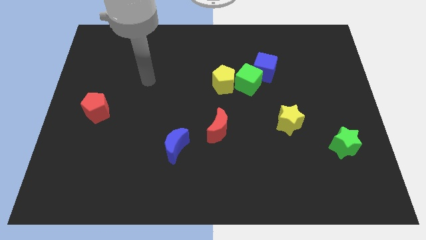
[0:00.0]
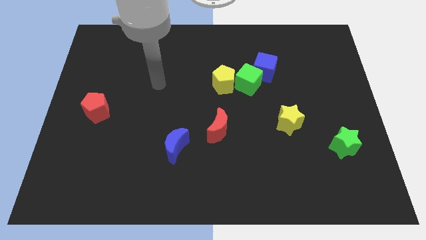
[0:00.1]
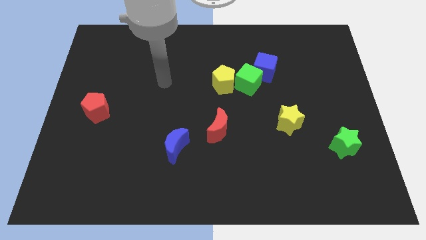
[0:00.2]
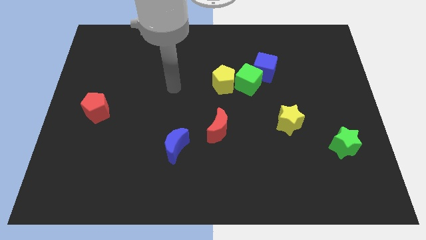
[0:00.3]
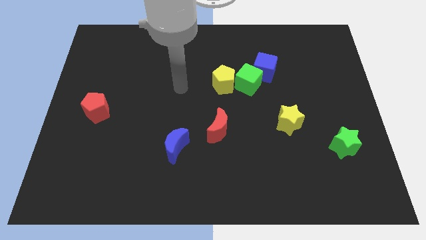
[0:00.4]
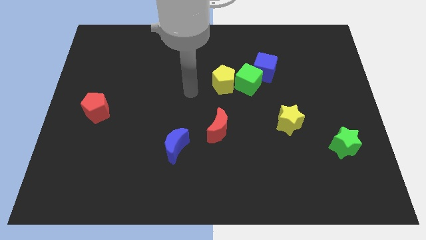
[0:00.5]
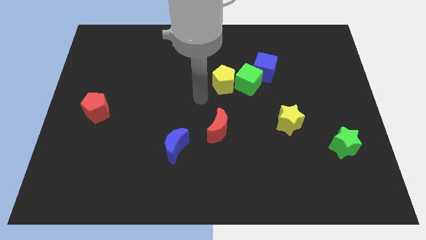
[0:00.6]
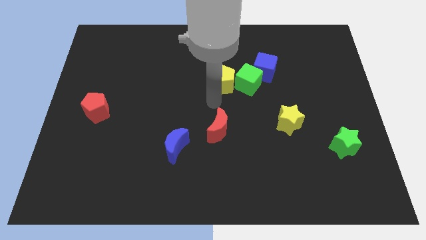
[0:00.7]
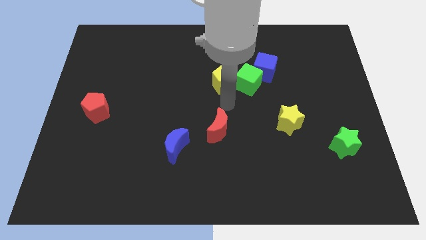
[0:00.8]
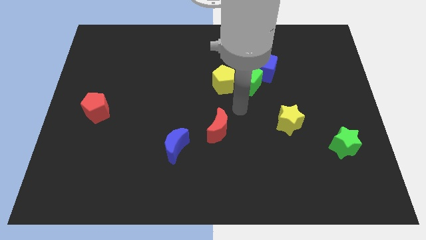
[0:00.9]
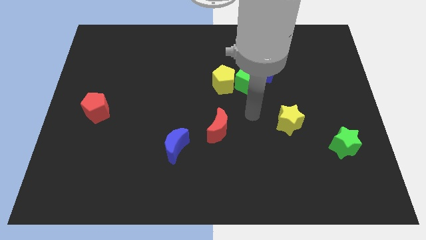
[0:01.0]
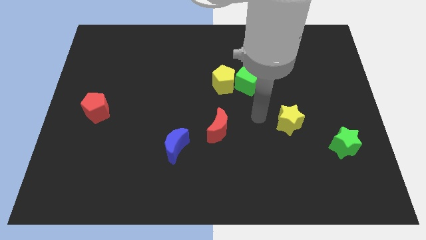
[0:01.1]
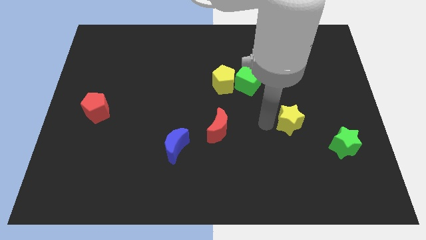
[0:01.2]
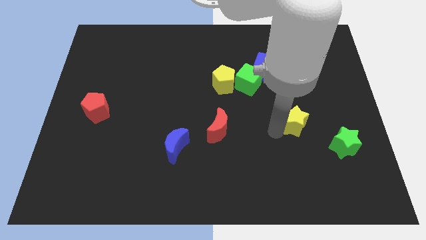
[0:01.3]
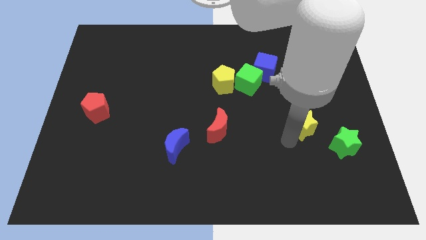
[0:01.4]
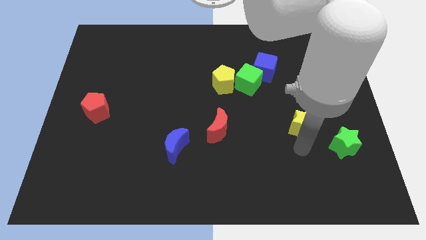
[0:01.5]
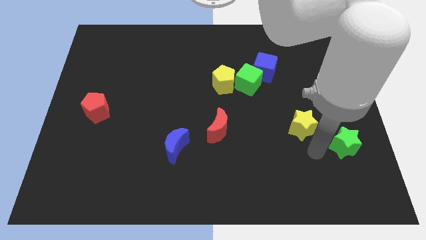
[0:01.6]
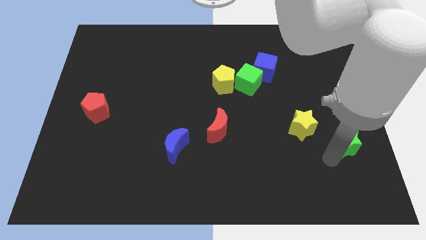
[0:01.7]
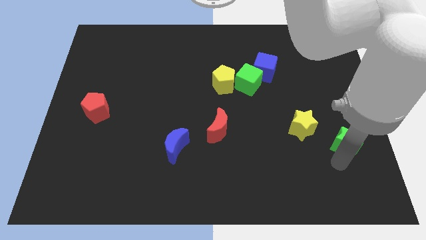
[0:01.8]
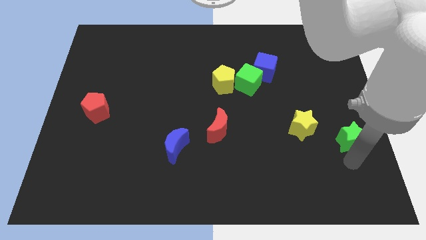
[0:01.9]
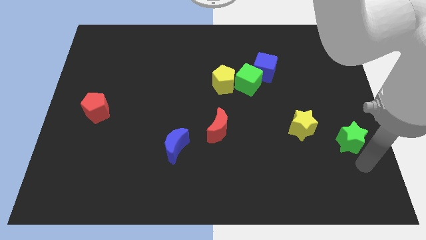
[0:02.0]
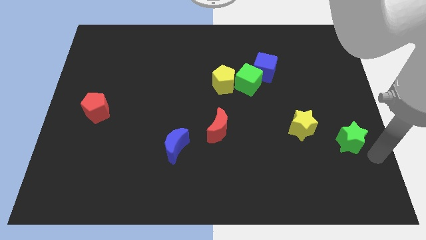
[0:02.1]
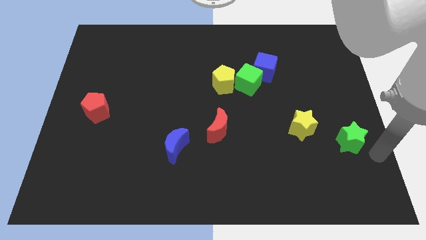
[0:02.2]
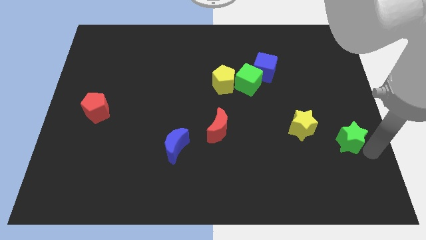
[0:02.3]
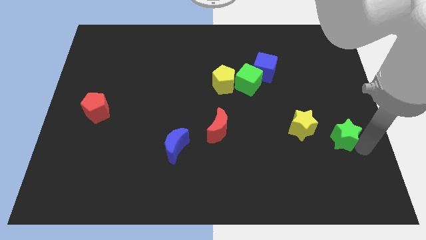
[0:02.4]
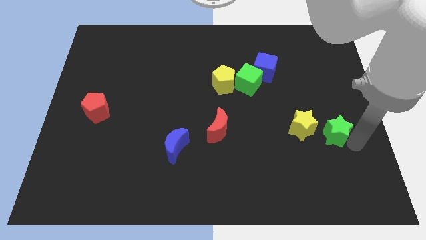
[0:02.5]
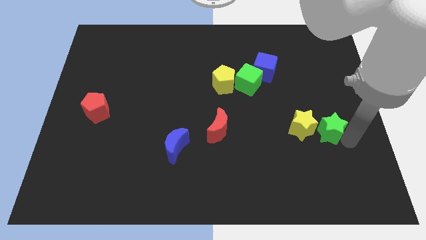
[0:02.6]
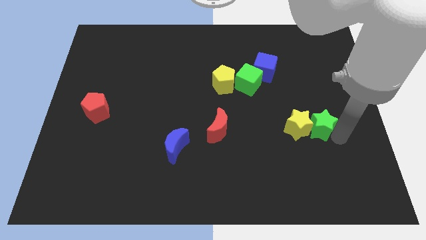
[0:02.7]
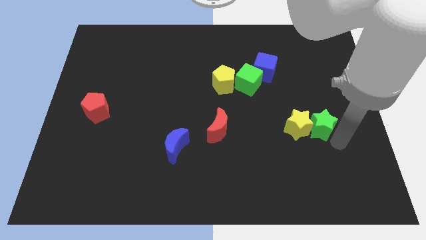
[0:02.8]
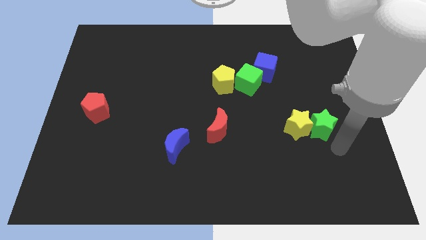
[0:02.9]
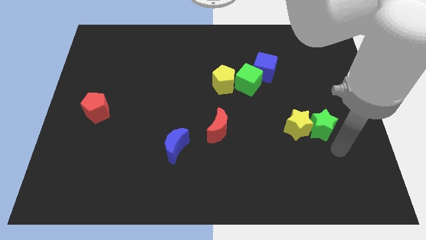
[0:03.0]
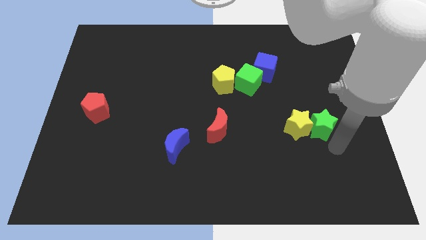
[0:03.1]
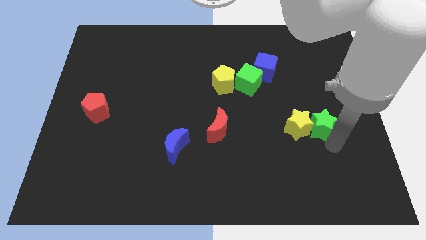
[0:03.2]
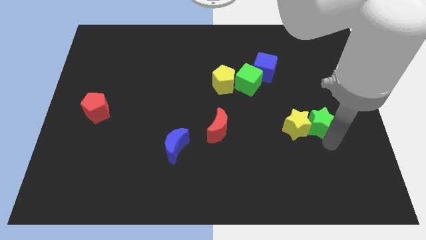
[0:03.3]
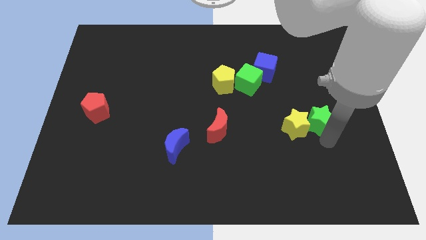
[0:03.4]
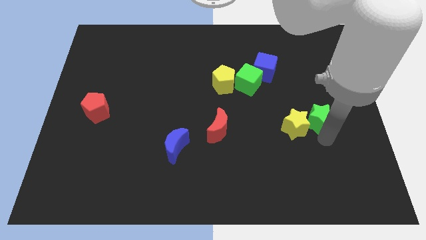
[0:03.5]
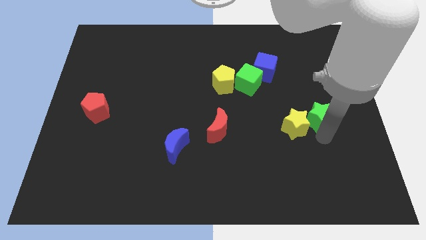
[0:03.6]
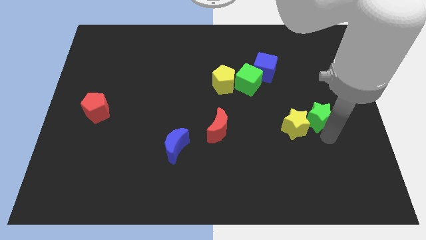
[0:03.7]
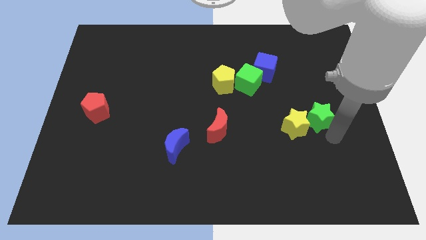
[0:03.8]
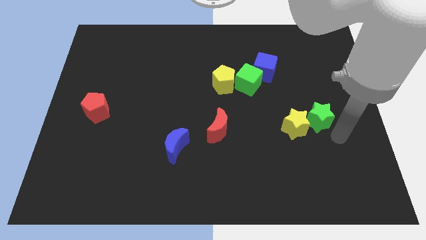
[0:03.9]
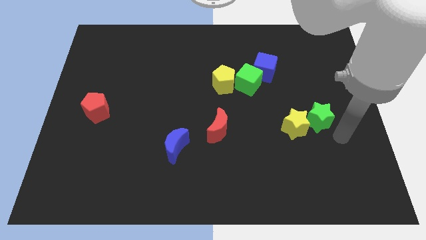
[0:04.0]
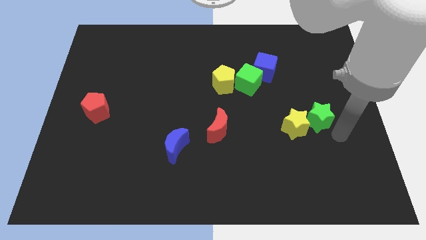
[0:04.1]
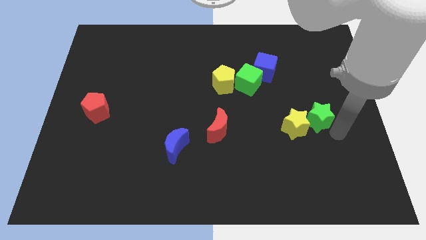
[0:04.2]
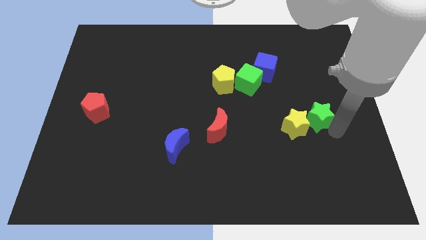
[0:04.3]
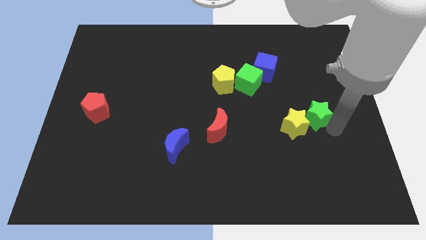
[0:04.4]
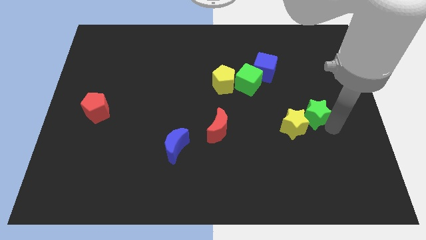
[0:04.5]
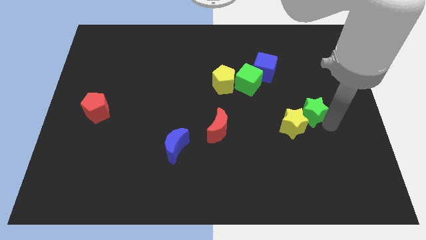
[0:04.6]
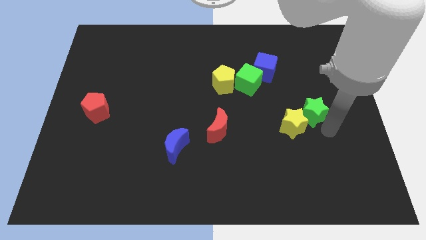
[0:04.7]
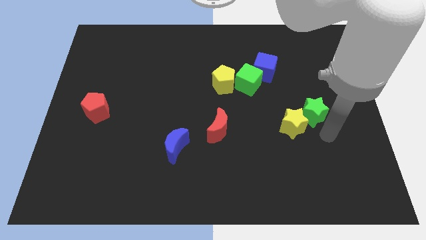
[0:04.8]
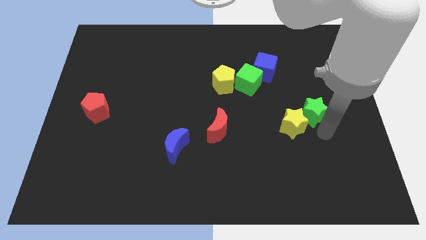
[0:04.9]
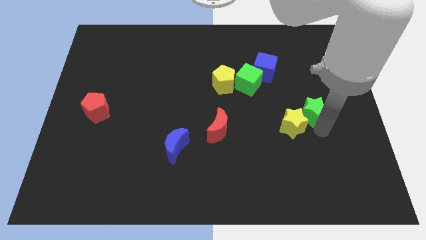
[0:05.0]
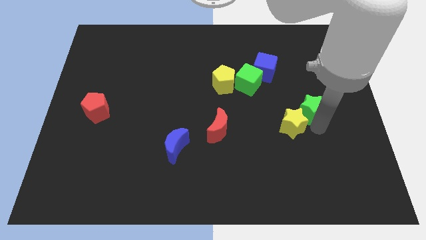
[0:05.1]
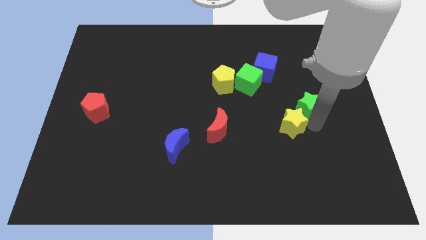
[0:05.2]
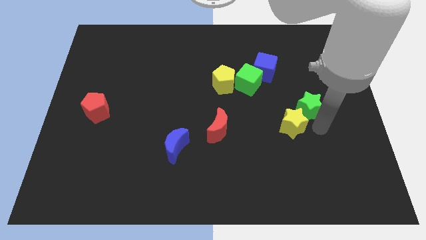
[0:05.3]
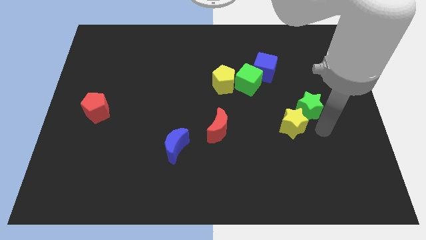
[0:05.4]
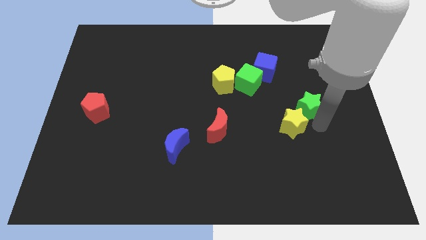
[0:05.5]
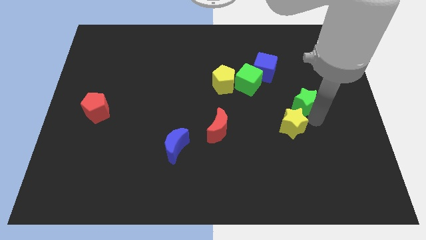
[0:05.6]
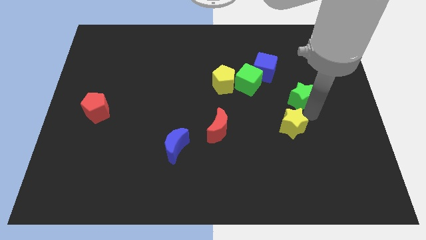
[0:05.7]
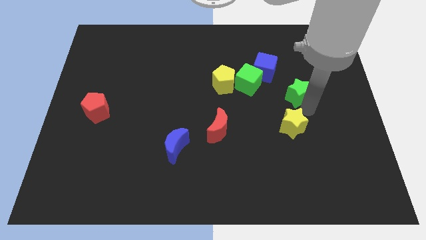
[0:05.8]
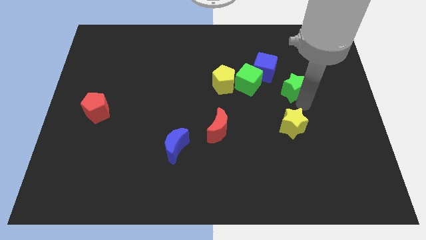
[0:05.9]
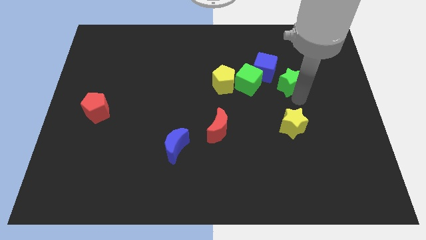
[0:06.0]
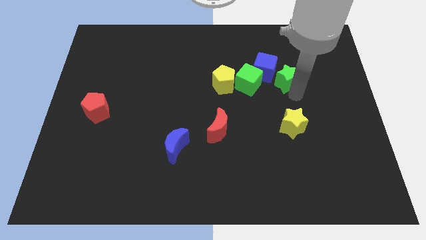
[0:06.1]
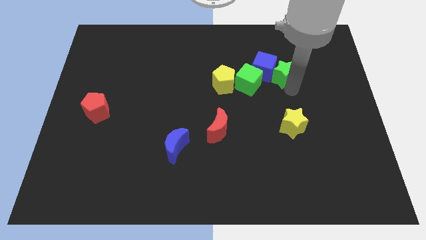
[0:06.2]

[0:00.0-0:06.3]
move the green star up and left

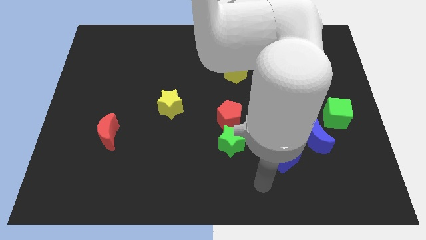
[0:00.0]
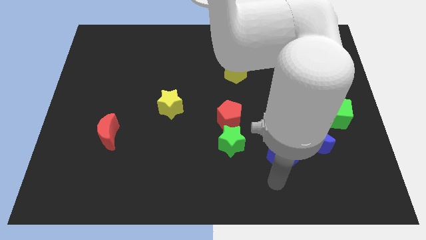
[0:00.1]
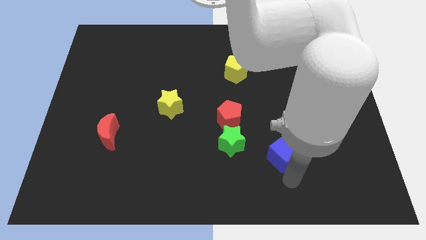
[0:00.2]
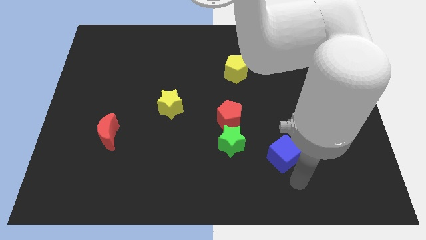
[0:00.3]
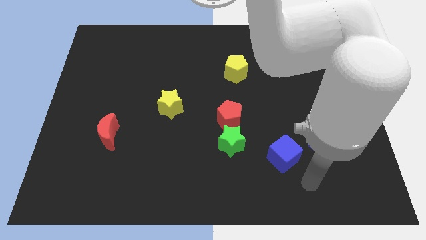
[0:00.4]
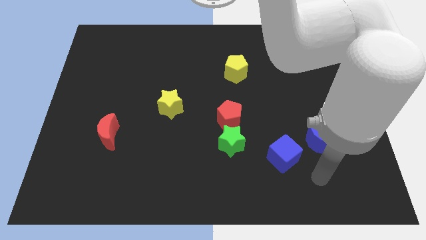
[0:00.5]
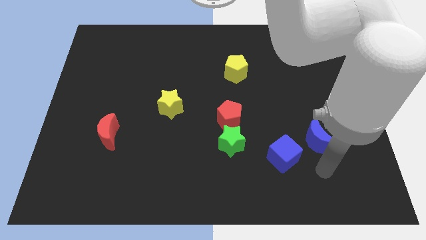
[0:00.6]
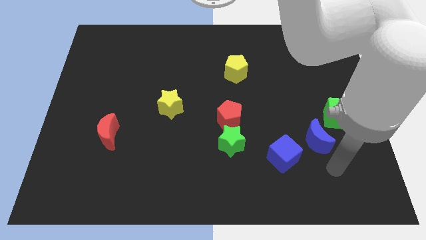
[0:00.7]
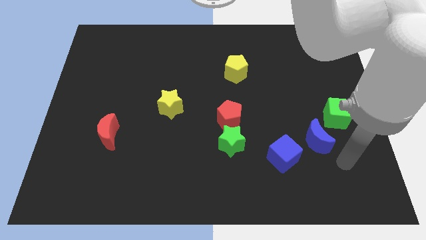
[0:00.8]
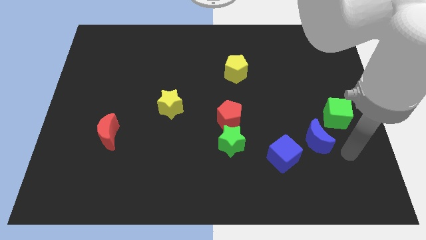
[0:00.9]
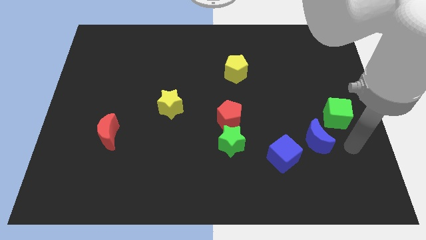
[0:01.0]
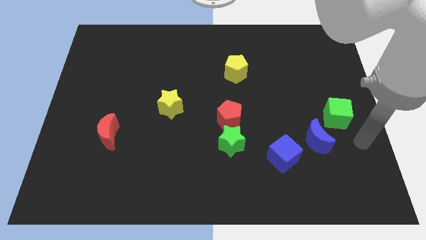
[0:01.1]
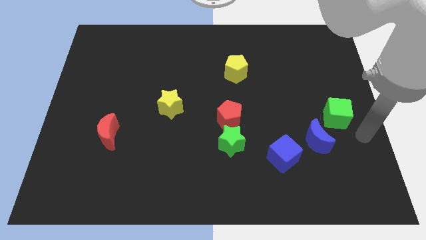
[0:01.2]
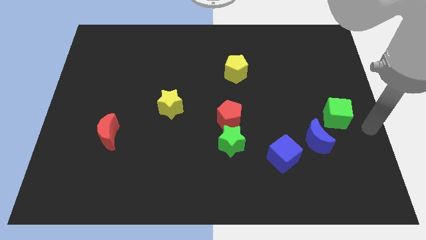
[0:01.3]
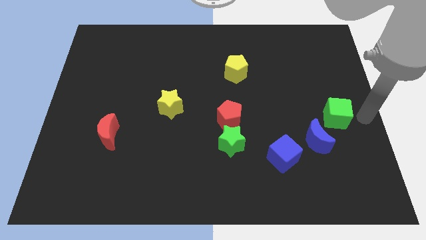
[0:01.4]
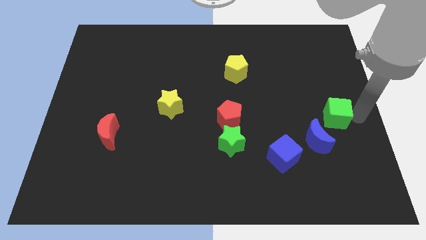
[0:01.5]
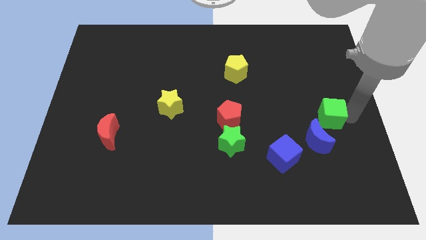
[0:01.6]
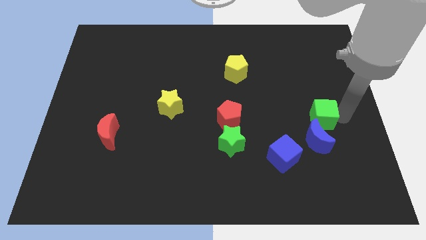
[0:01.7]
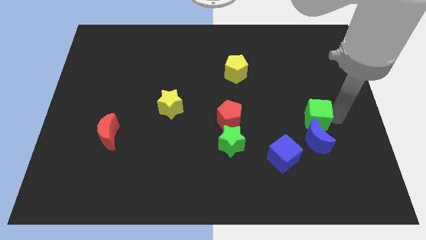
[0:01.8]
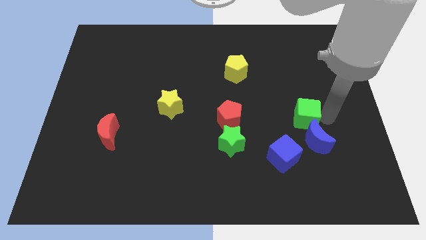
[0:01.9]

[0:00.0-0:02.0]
slide the green cube to the left a bit
